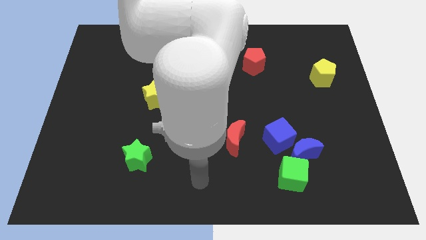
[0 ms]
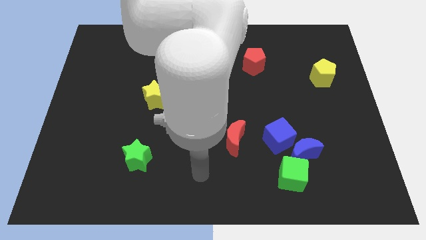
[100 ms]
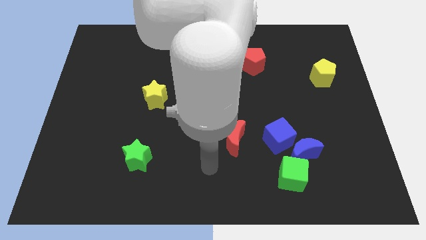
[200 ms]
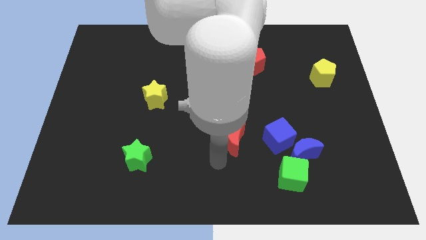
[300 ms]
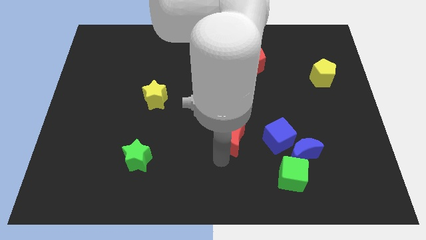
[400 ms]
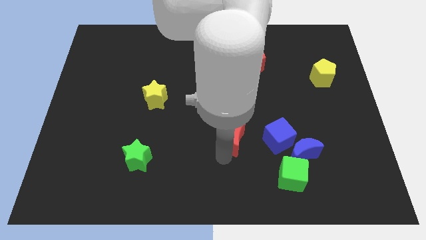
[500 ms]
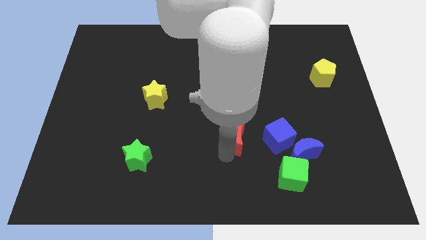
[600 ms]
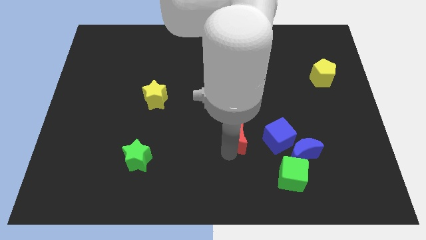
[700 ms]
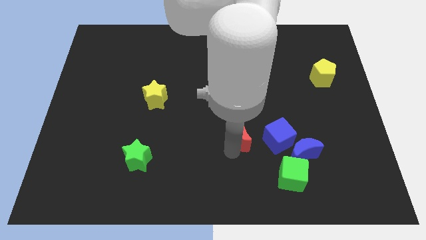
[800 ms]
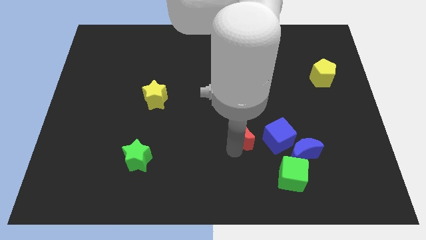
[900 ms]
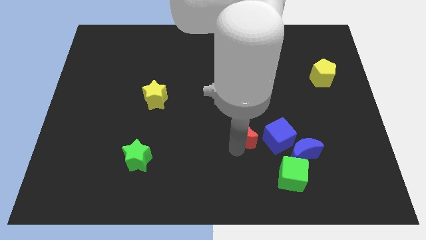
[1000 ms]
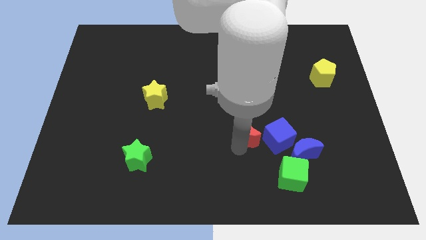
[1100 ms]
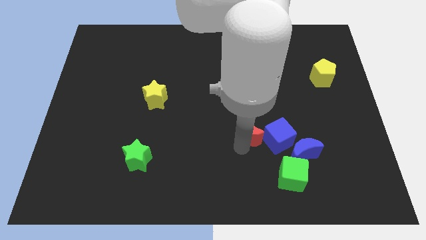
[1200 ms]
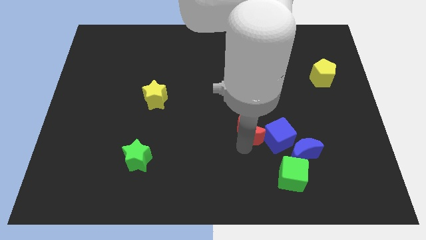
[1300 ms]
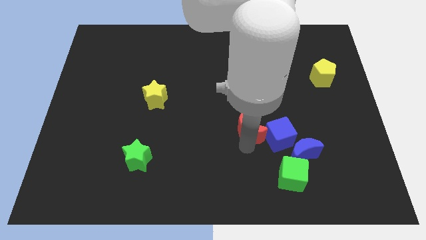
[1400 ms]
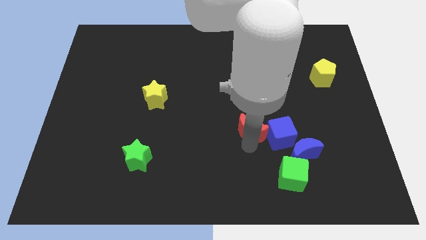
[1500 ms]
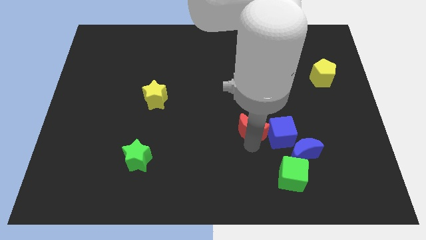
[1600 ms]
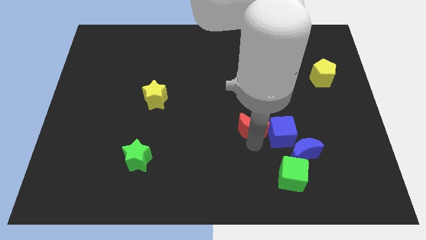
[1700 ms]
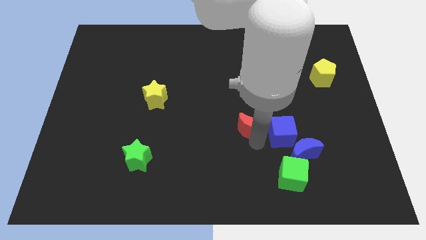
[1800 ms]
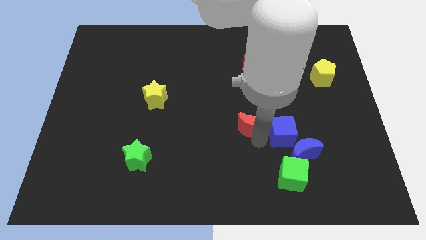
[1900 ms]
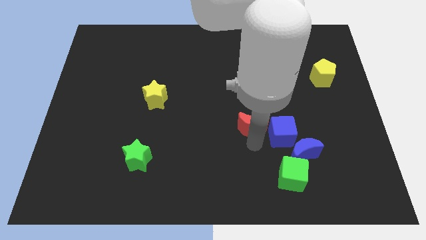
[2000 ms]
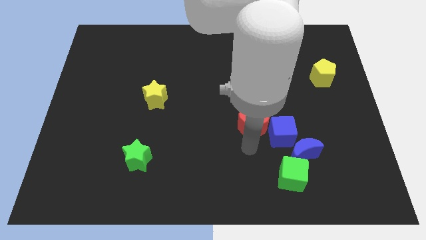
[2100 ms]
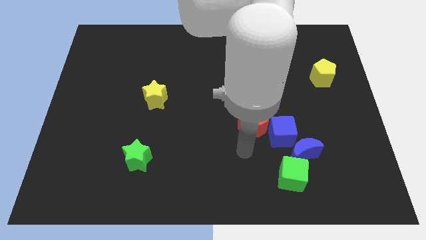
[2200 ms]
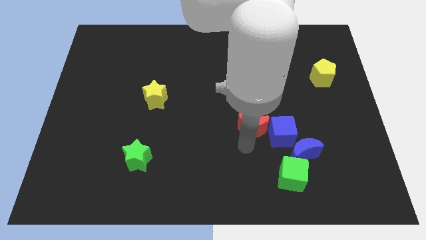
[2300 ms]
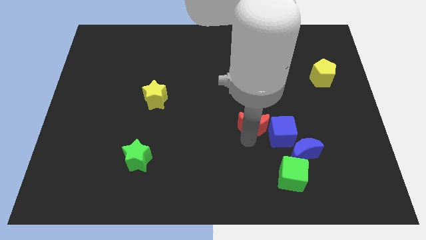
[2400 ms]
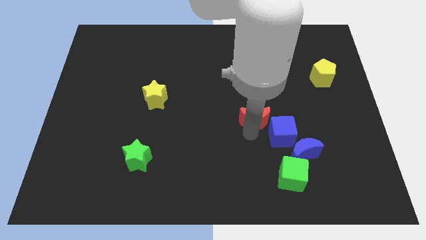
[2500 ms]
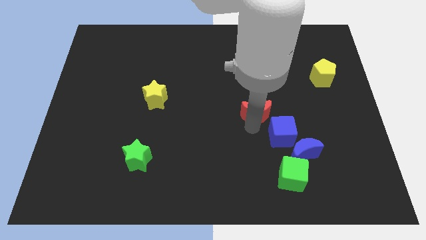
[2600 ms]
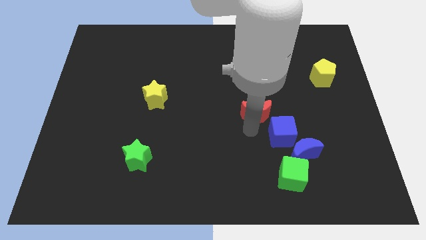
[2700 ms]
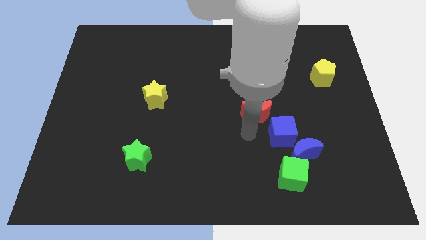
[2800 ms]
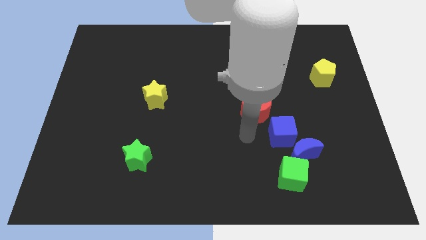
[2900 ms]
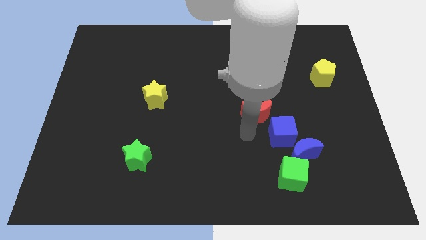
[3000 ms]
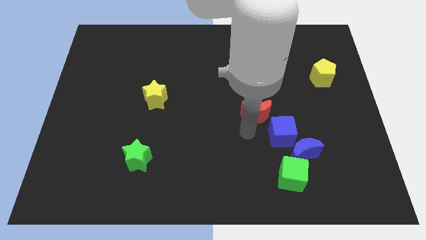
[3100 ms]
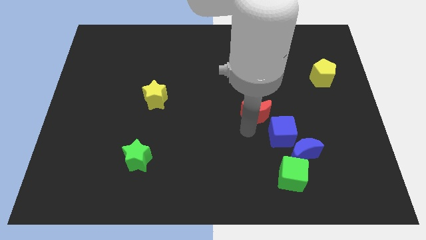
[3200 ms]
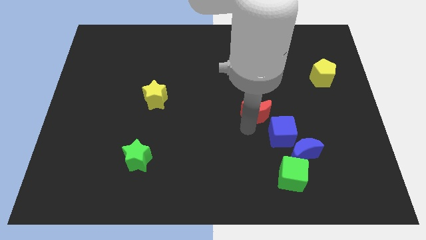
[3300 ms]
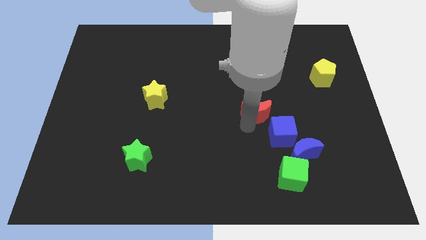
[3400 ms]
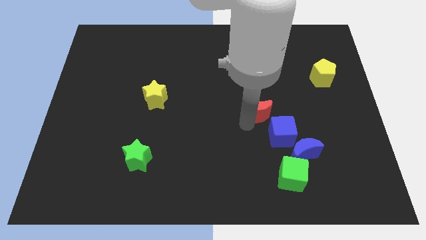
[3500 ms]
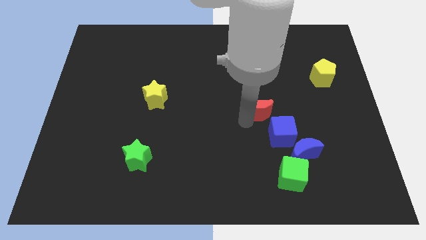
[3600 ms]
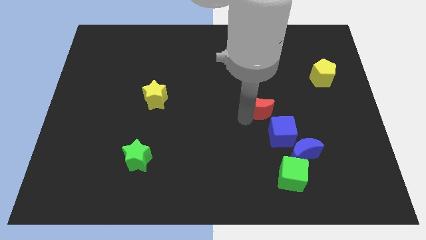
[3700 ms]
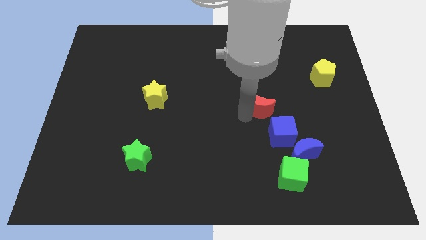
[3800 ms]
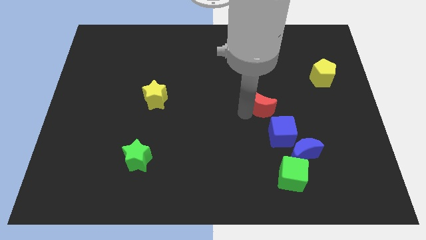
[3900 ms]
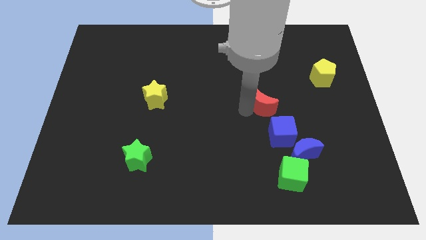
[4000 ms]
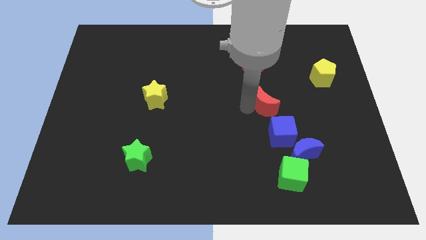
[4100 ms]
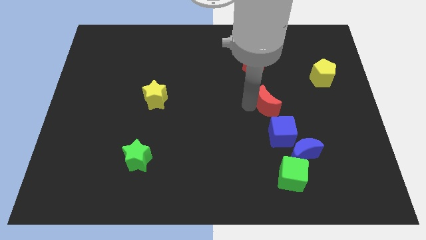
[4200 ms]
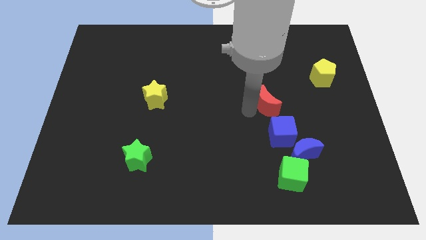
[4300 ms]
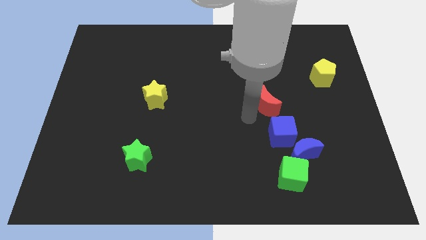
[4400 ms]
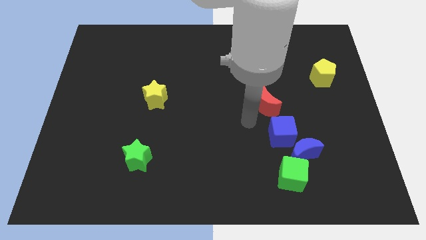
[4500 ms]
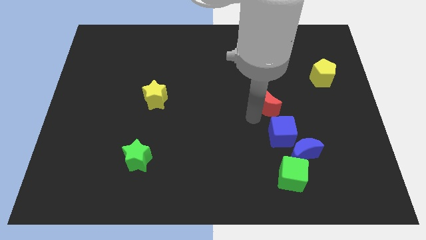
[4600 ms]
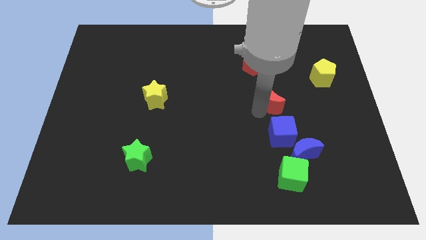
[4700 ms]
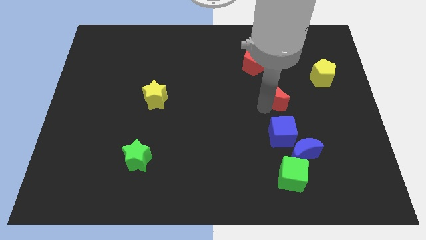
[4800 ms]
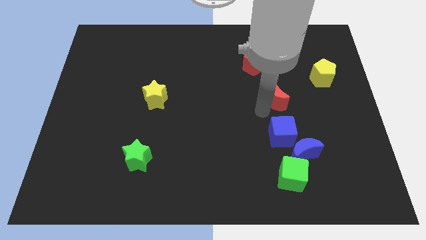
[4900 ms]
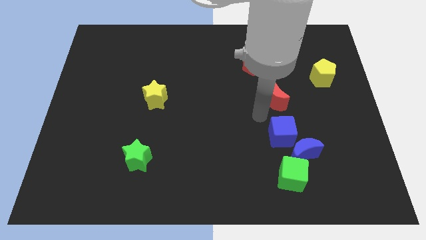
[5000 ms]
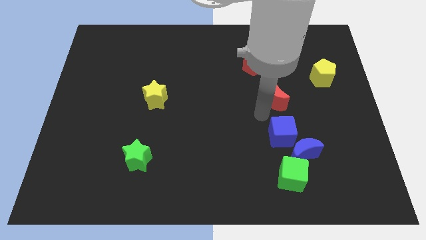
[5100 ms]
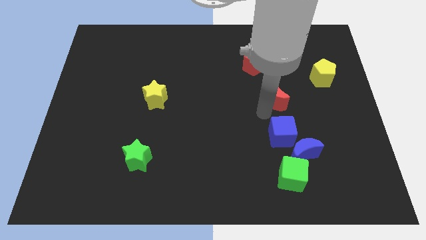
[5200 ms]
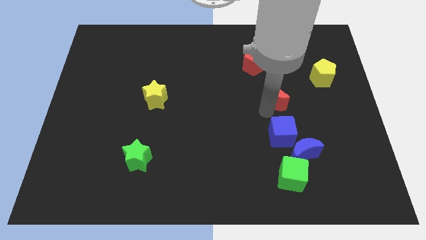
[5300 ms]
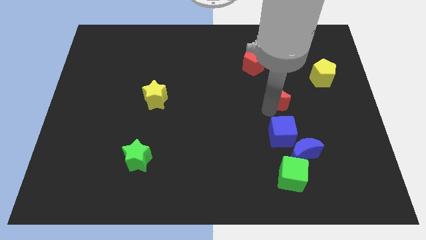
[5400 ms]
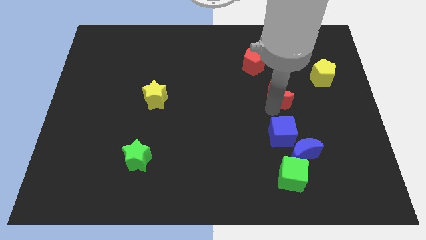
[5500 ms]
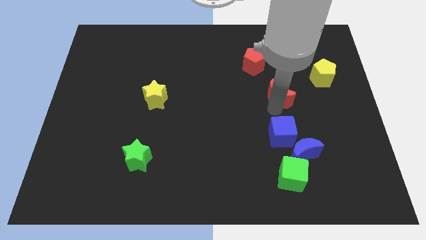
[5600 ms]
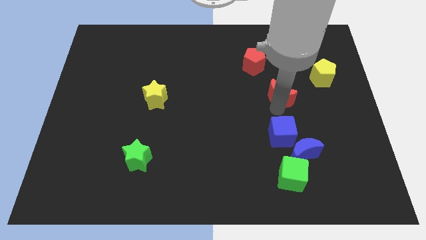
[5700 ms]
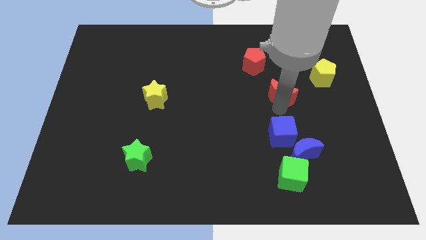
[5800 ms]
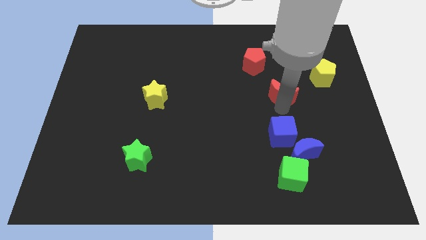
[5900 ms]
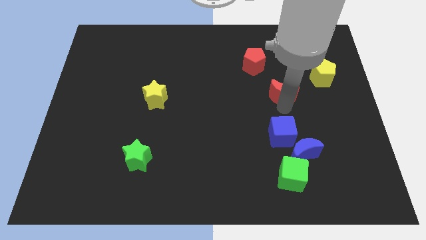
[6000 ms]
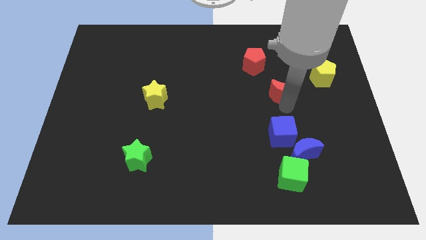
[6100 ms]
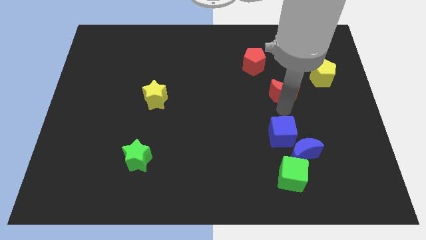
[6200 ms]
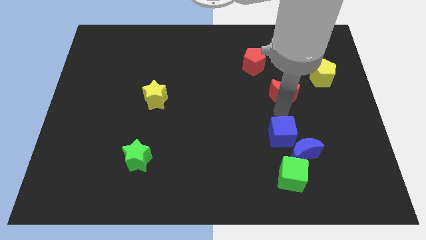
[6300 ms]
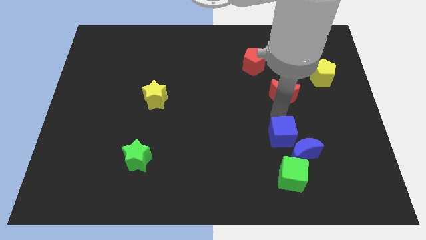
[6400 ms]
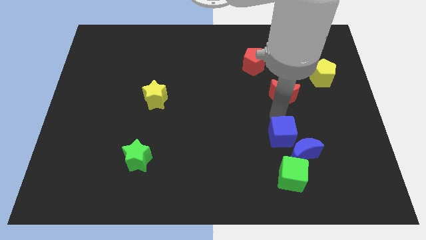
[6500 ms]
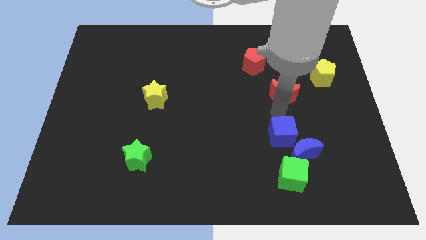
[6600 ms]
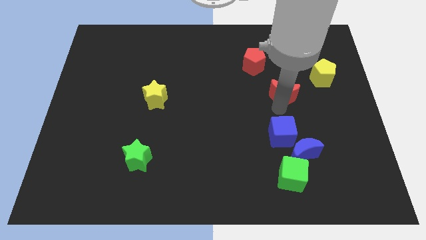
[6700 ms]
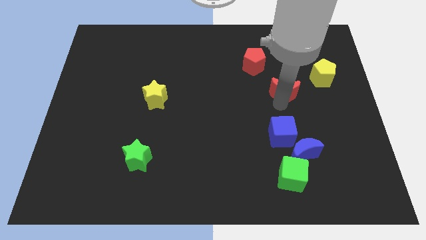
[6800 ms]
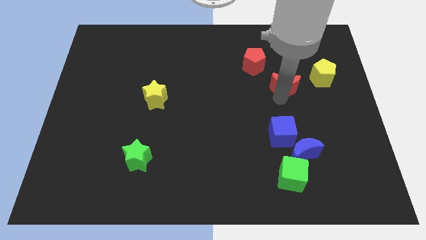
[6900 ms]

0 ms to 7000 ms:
push the red moon diagonally up and right

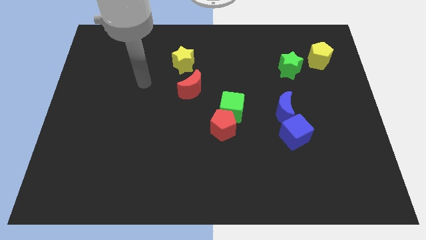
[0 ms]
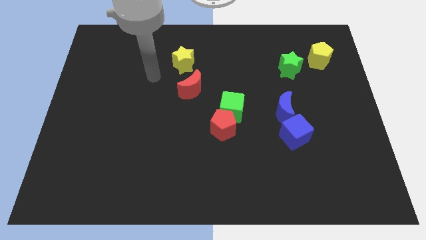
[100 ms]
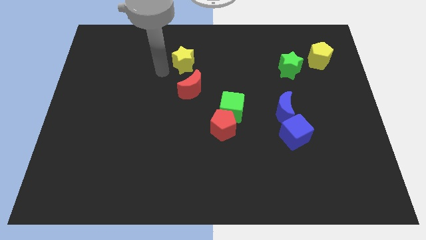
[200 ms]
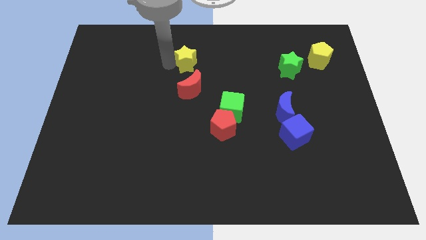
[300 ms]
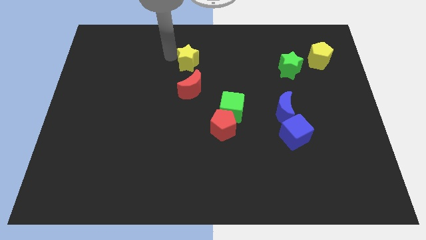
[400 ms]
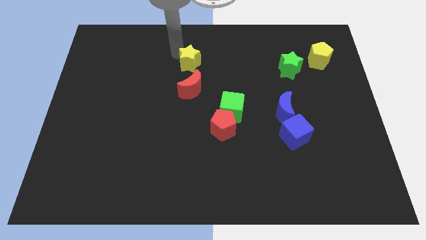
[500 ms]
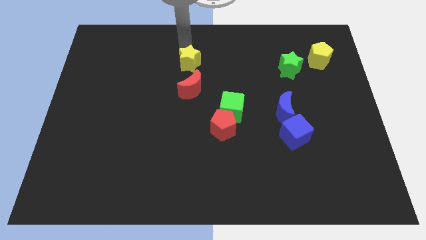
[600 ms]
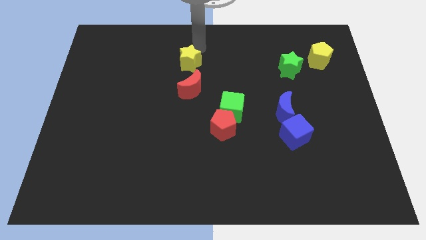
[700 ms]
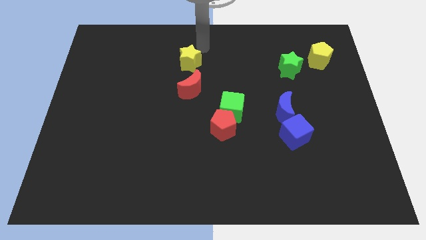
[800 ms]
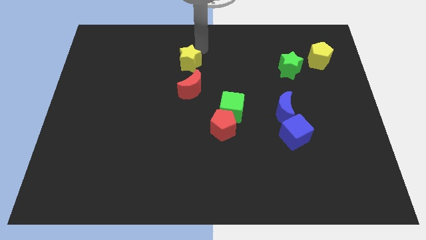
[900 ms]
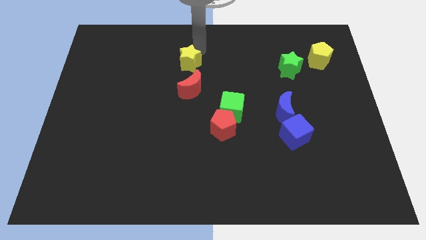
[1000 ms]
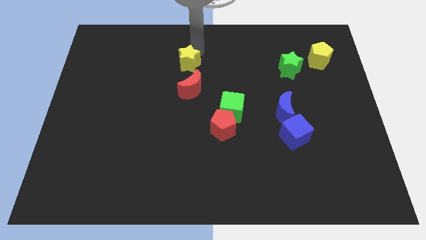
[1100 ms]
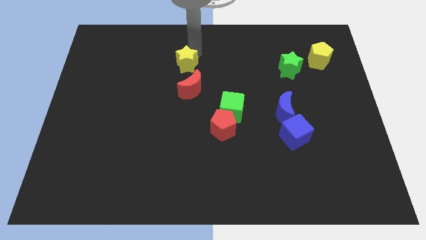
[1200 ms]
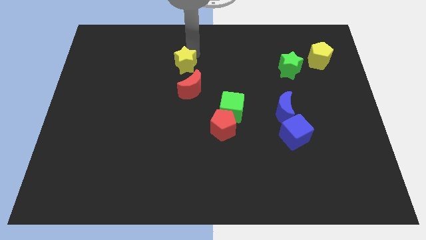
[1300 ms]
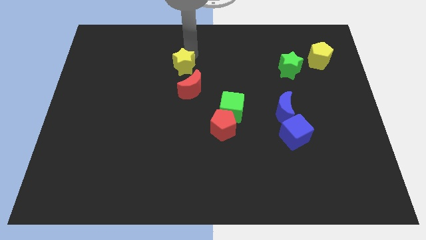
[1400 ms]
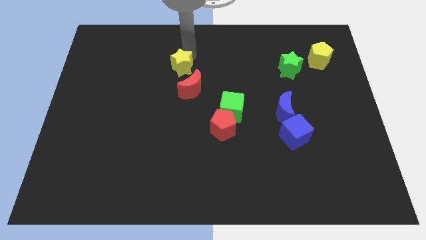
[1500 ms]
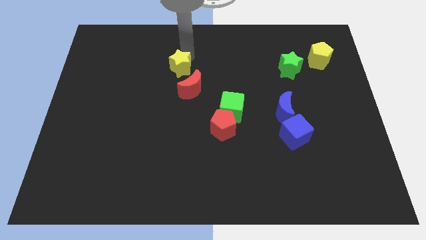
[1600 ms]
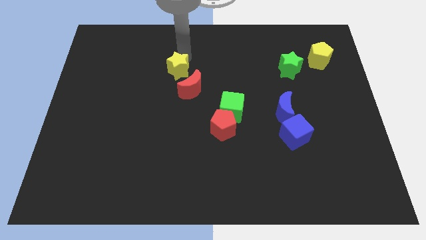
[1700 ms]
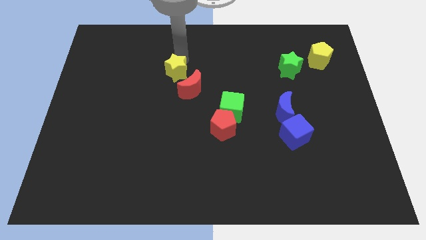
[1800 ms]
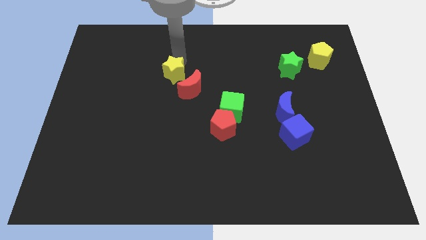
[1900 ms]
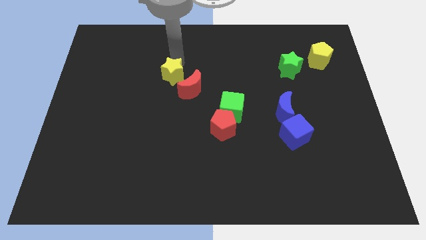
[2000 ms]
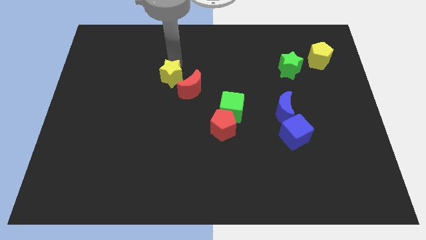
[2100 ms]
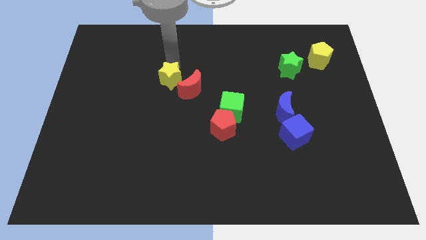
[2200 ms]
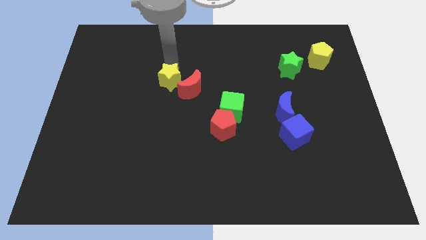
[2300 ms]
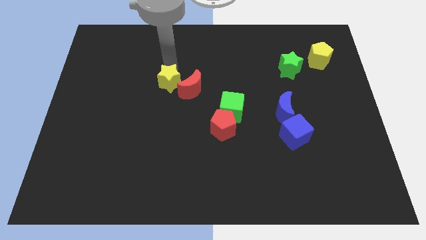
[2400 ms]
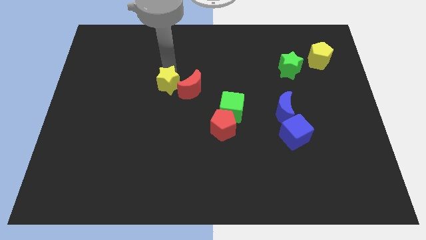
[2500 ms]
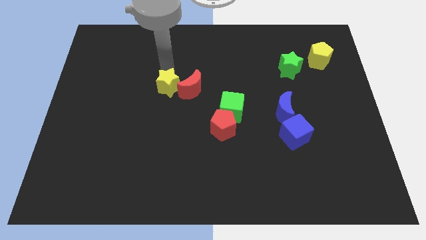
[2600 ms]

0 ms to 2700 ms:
push the yellow star slightly down
